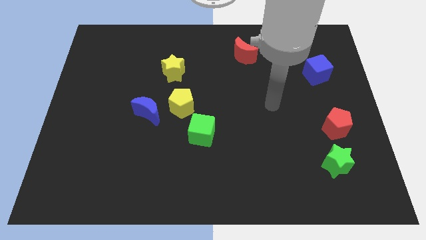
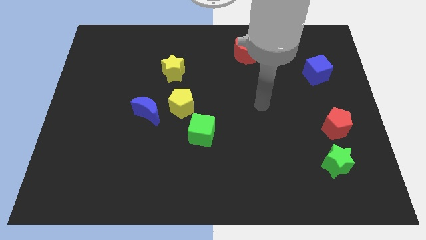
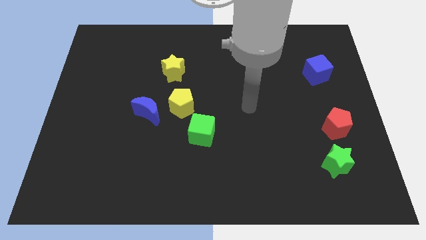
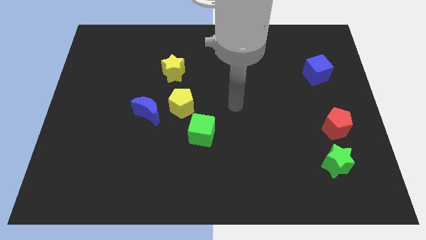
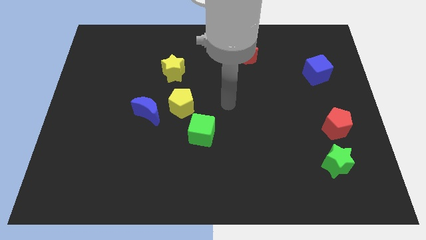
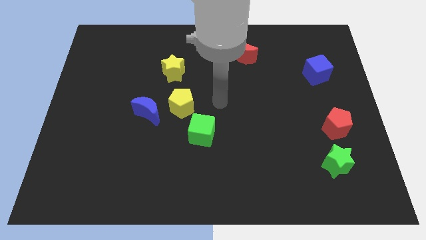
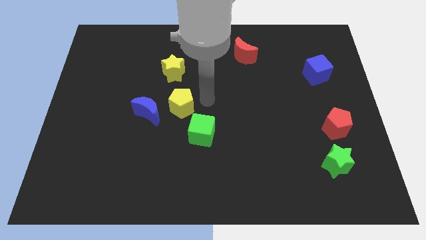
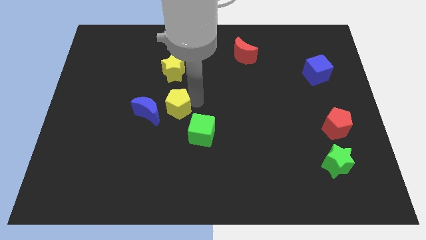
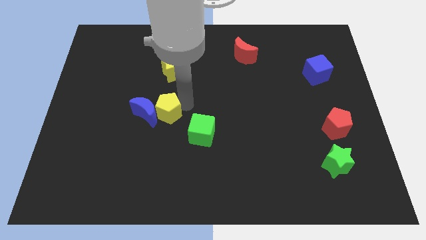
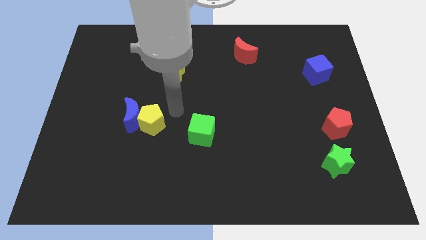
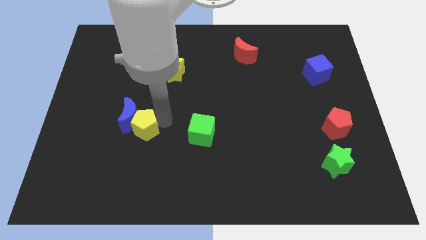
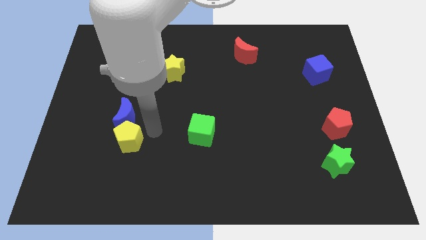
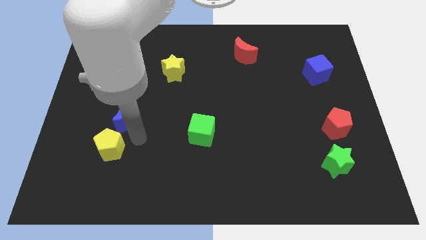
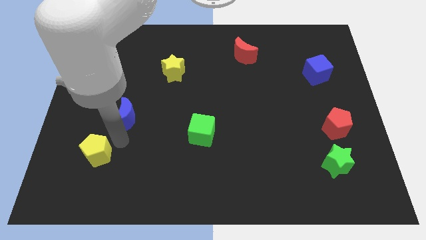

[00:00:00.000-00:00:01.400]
pull the blue moon apart from the yellow pentagon

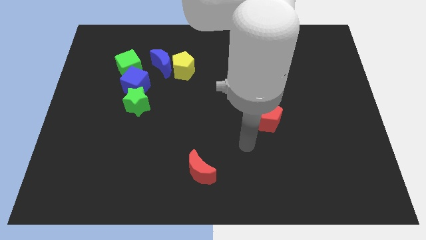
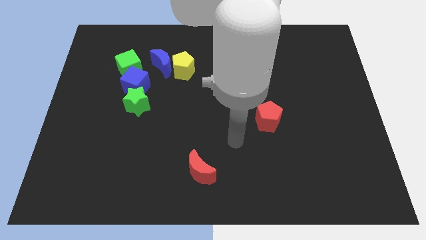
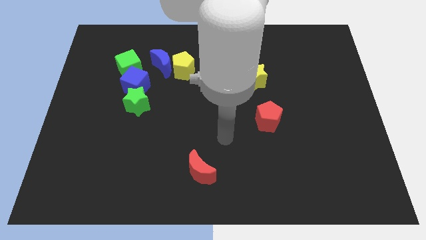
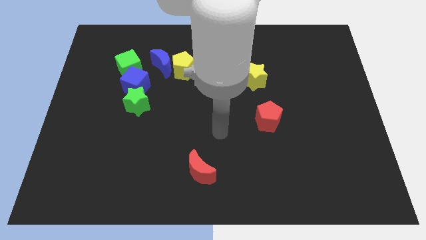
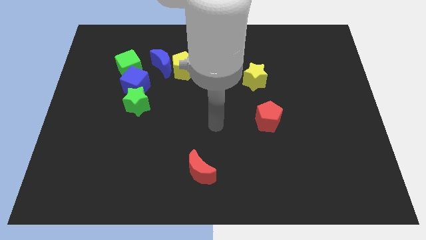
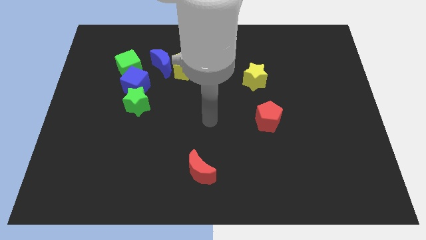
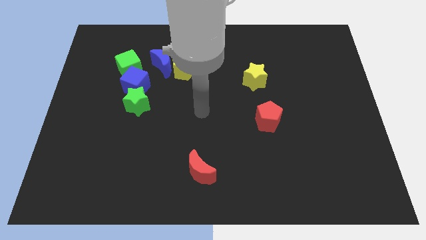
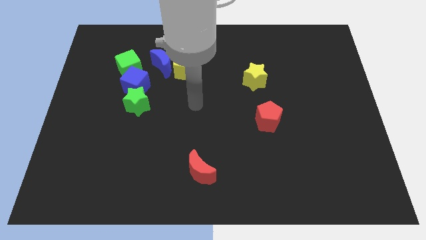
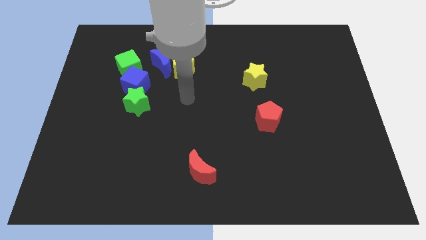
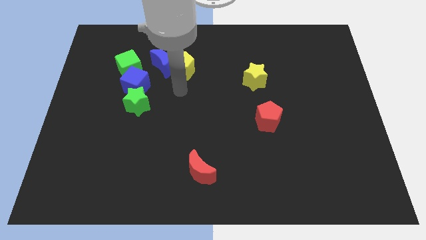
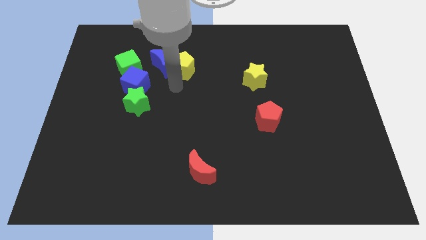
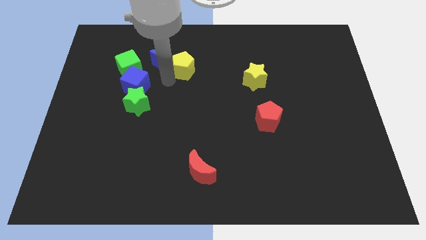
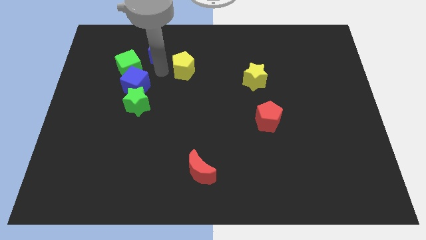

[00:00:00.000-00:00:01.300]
pull the yellow pentagon apart from the blue moon

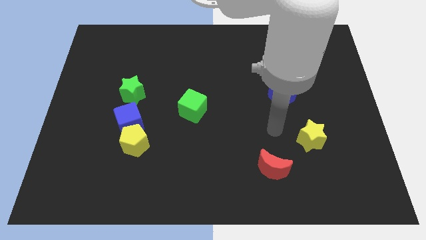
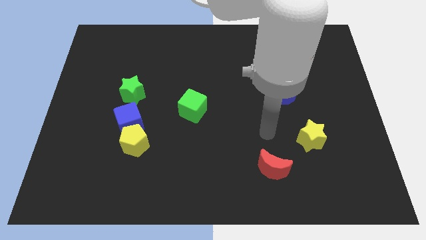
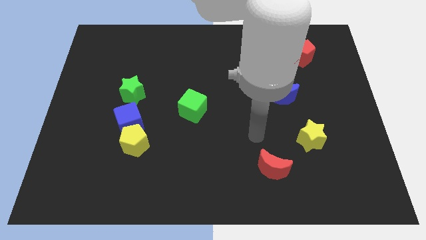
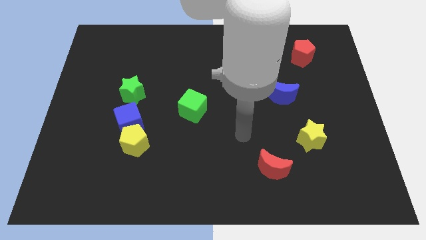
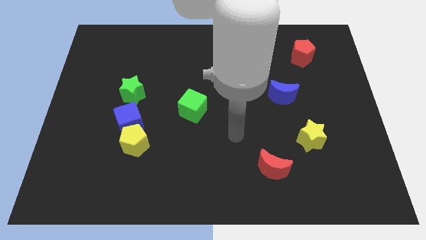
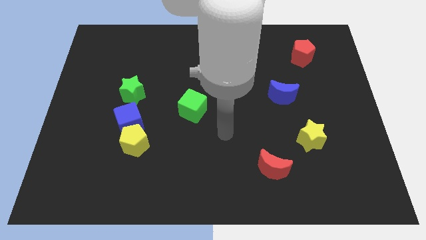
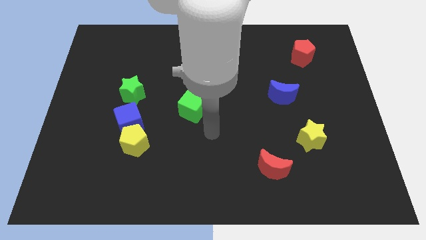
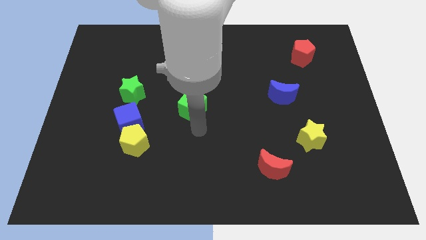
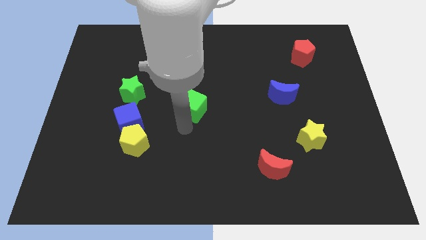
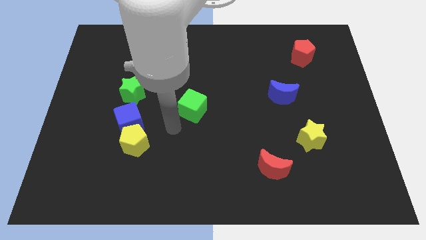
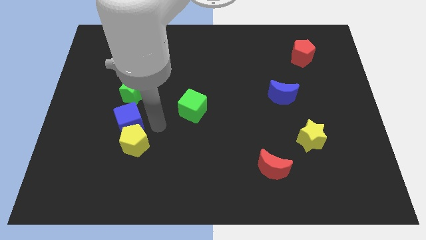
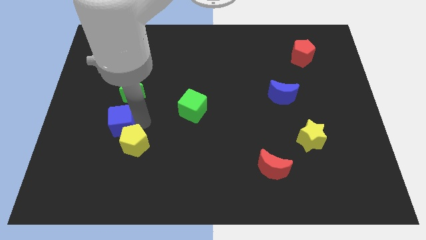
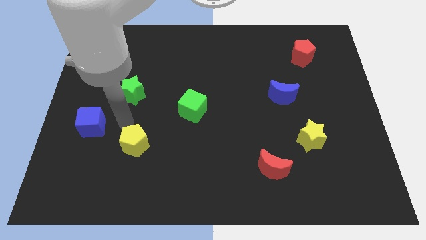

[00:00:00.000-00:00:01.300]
separate the yellow pentagon from the blue cube

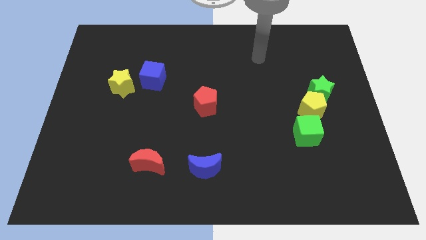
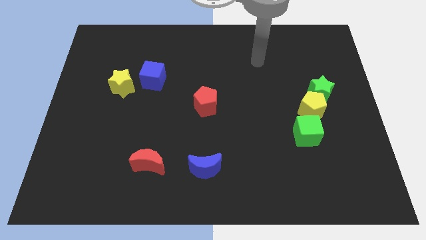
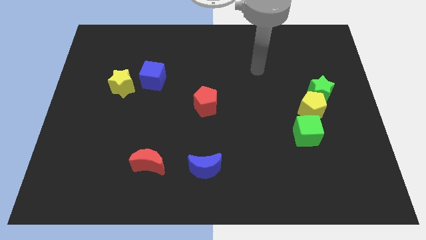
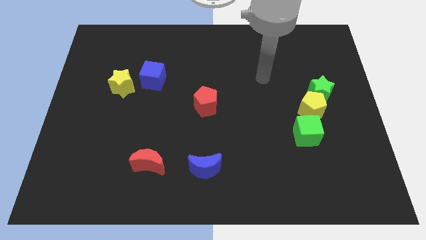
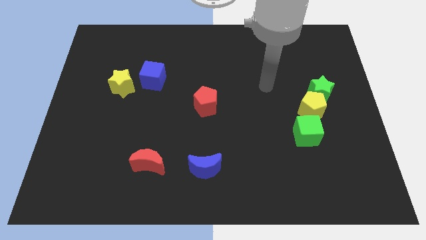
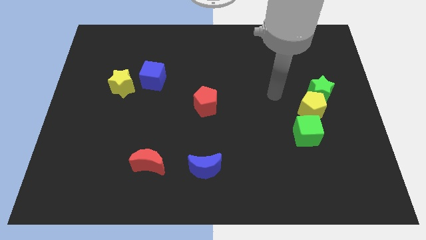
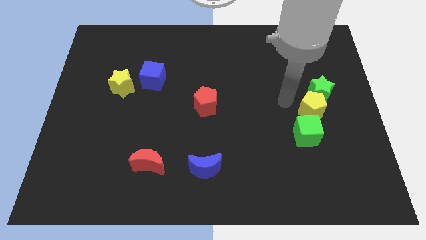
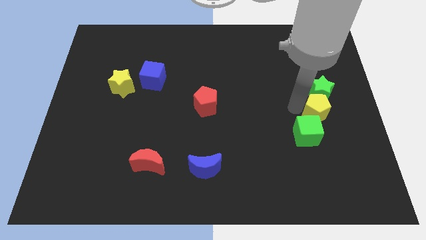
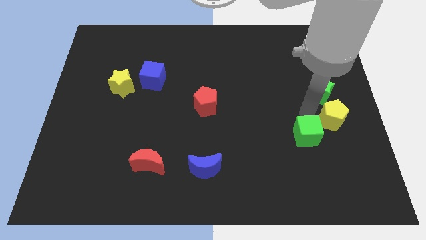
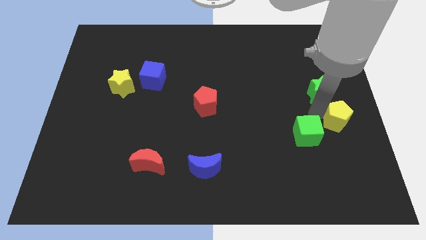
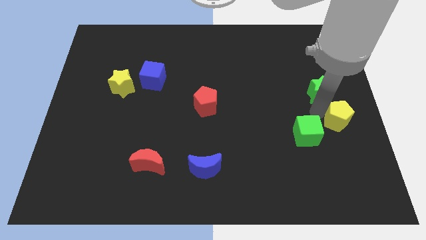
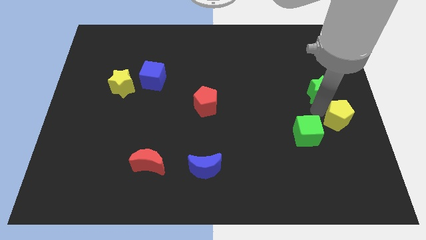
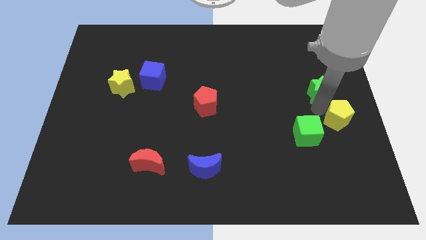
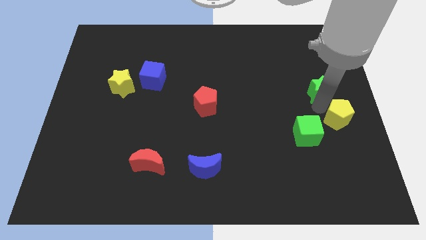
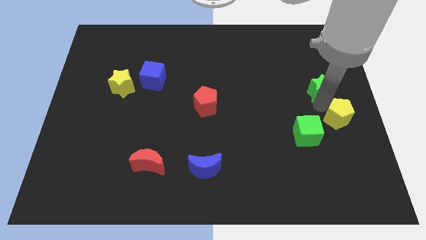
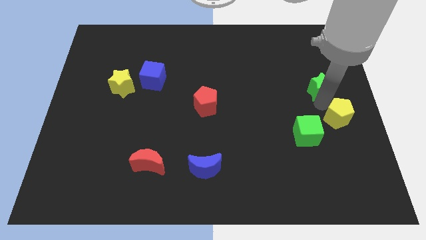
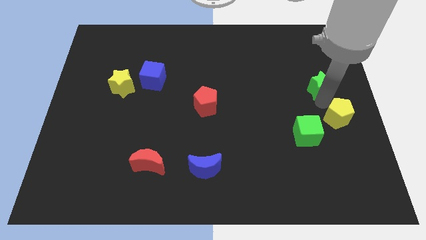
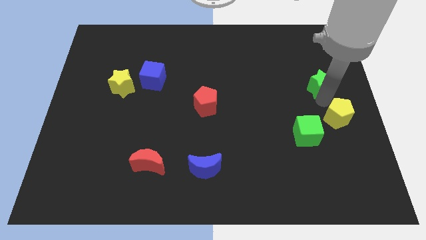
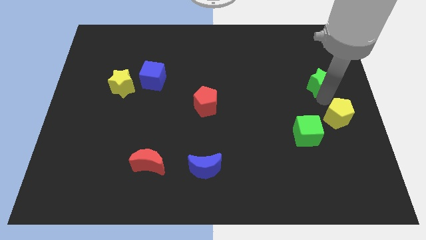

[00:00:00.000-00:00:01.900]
separate the green star from the yellow pentagon

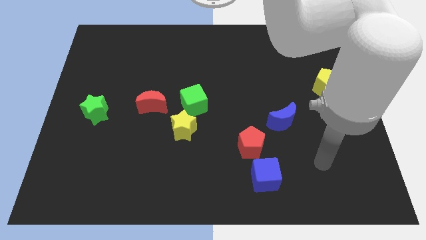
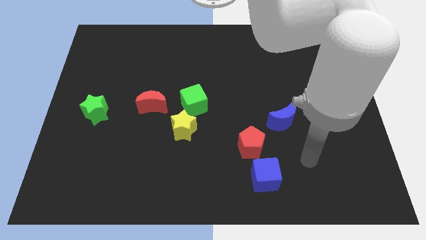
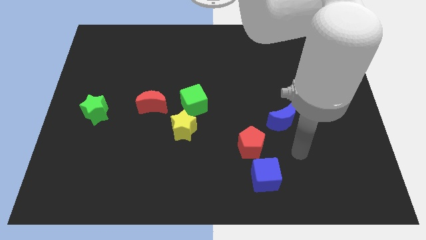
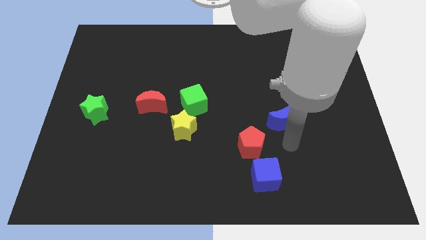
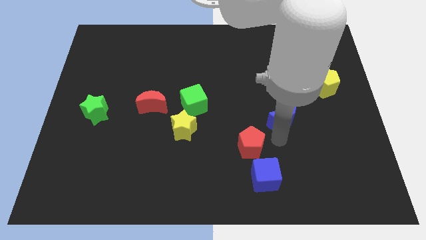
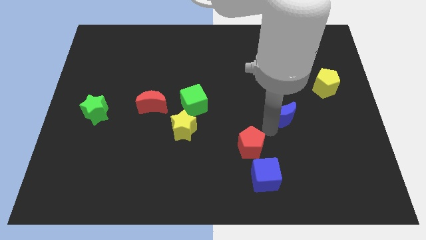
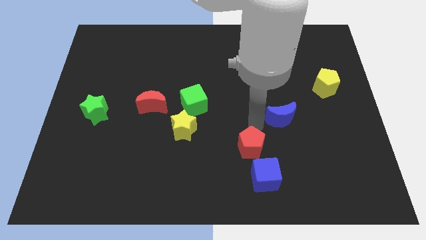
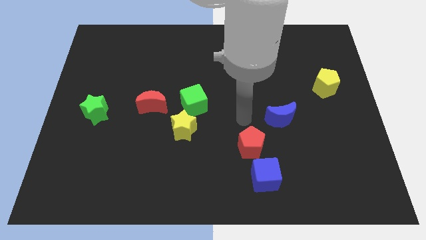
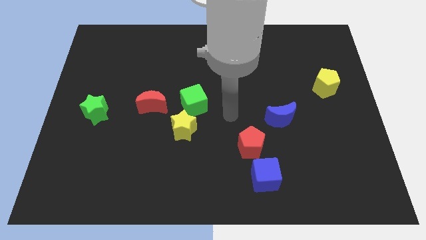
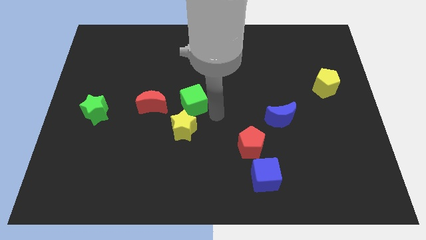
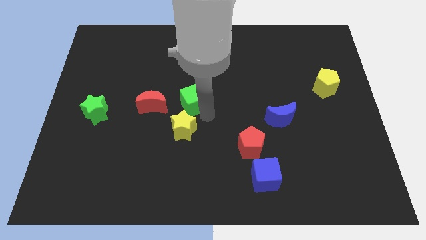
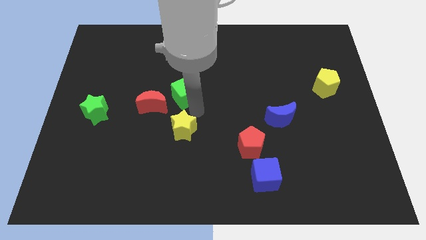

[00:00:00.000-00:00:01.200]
separate the yellow star from the green cube

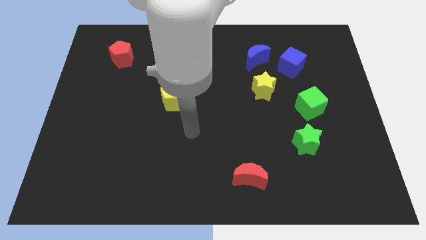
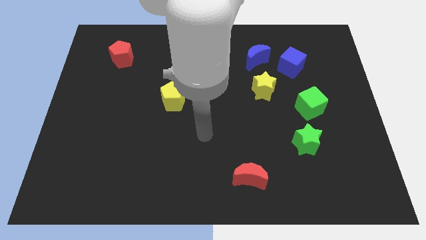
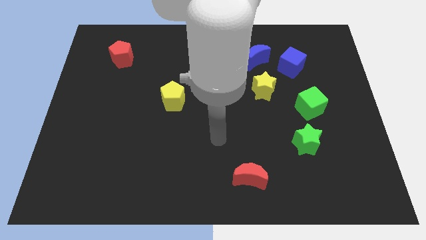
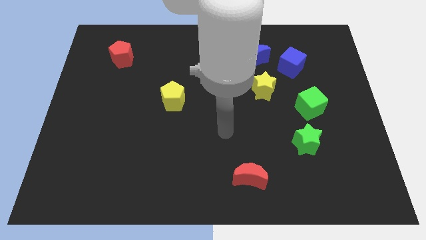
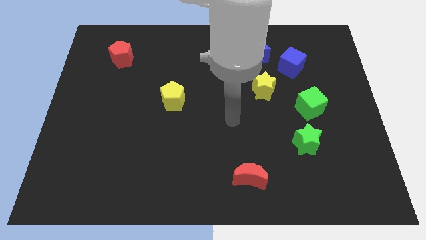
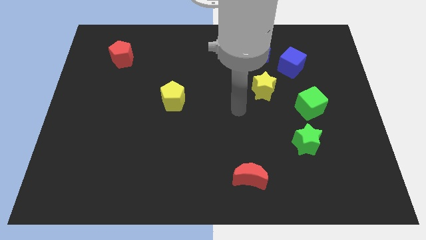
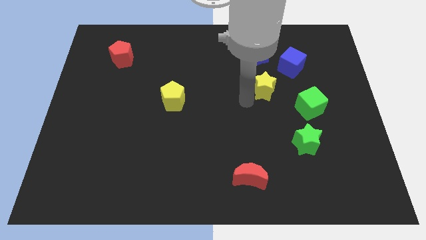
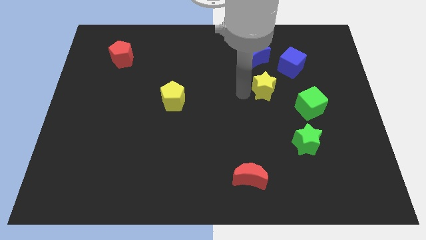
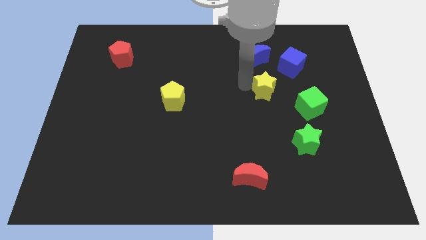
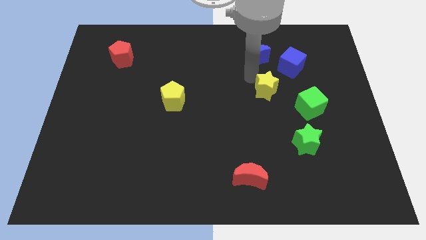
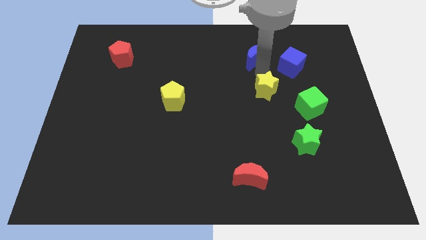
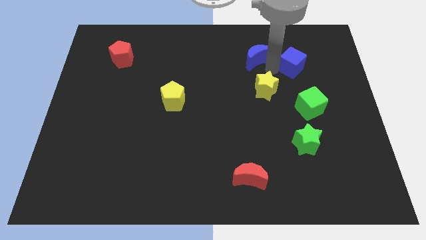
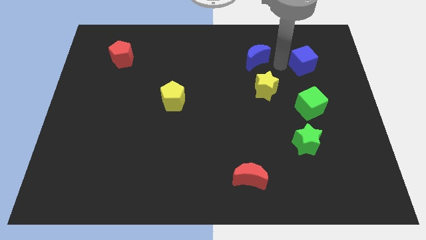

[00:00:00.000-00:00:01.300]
separate the blue moon from the blue cube

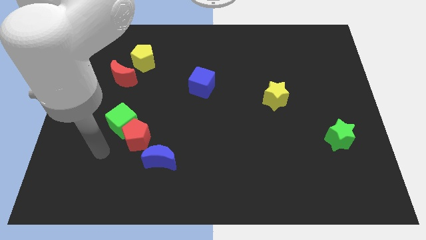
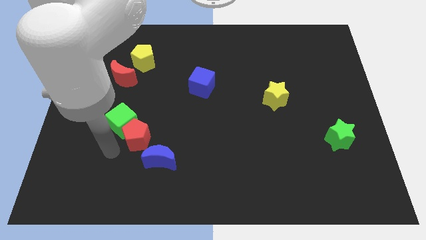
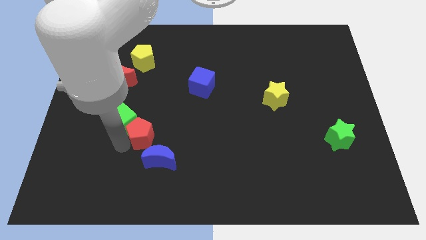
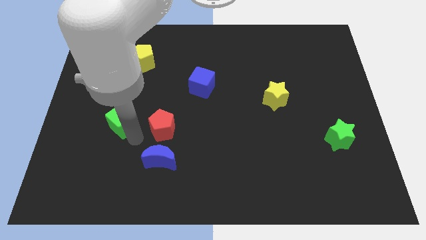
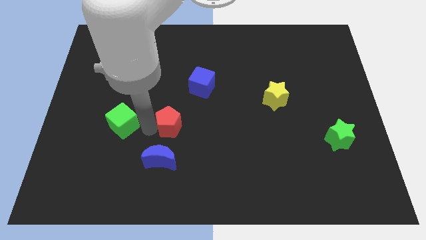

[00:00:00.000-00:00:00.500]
pull the green cube apart from the red pentagon

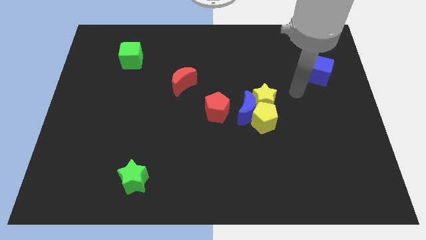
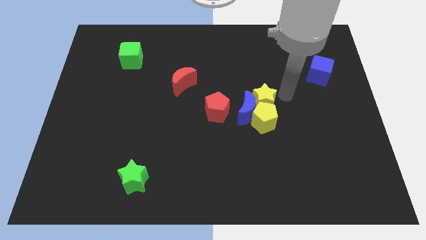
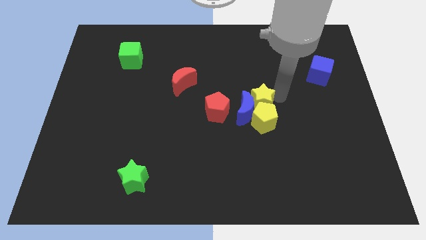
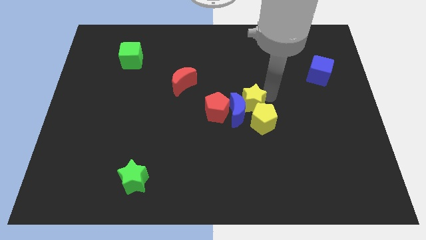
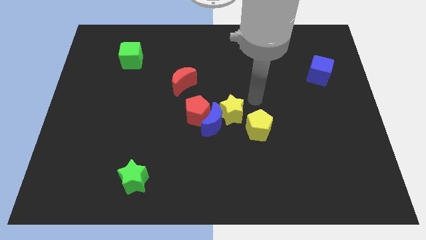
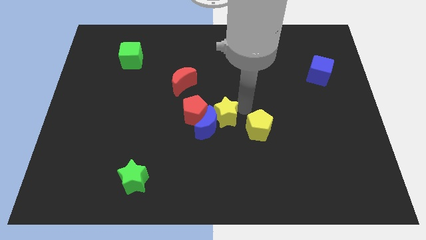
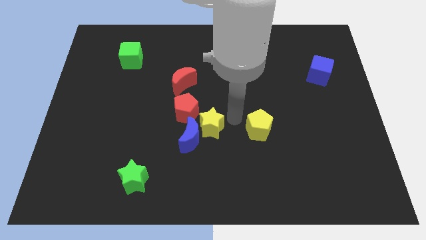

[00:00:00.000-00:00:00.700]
pull the yellow pentagon apart from the blue moon and yellow star
